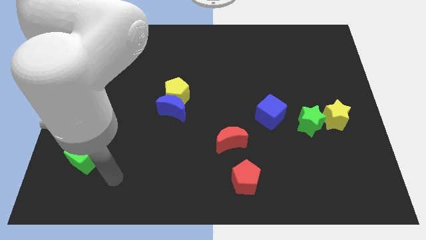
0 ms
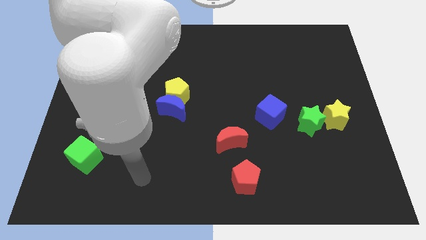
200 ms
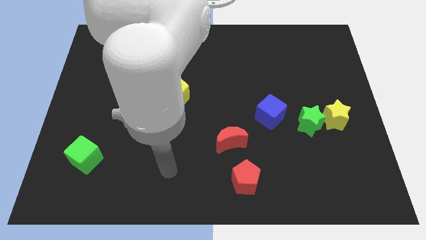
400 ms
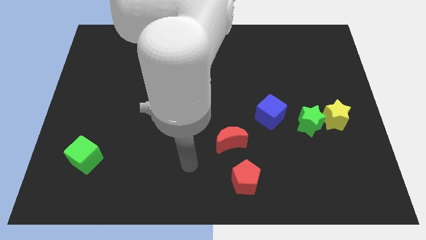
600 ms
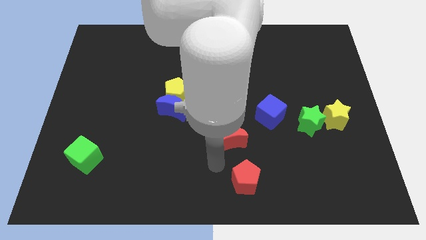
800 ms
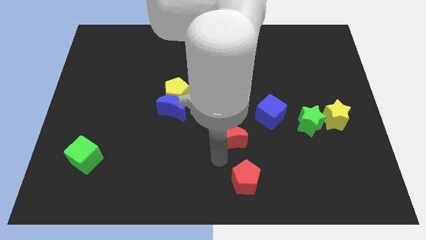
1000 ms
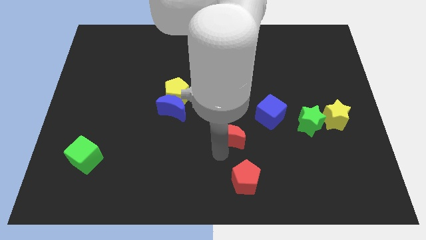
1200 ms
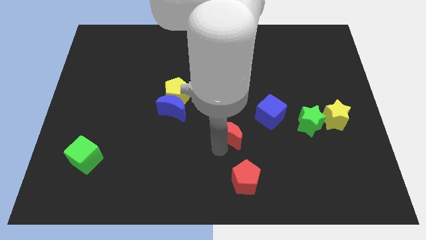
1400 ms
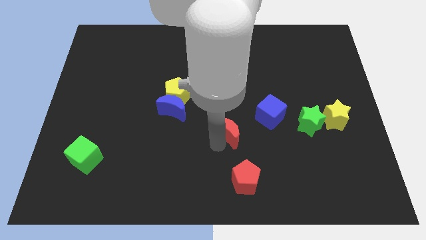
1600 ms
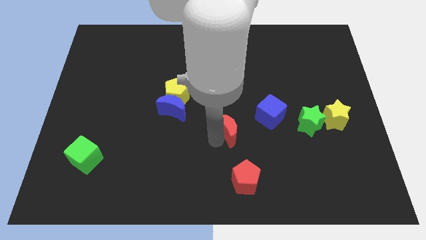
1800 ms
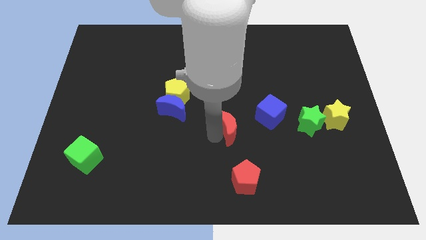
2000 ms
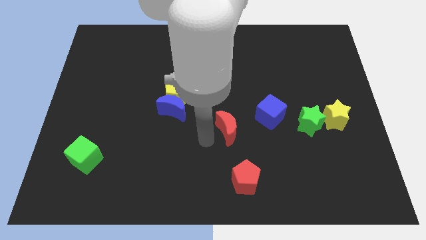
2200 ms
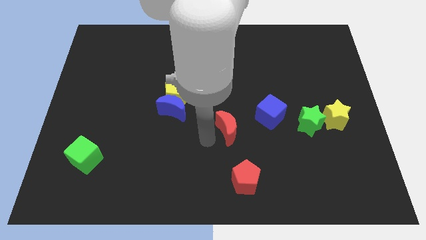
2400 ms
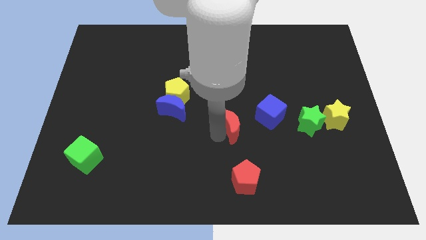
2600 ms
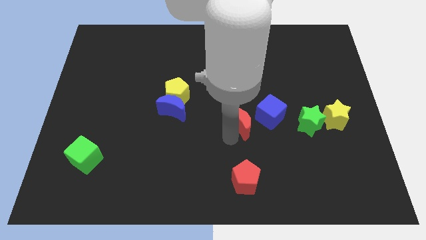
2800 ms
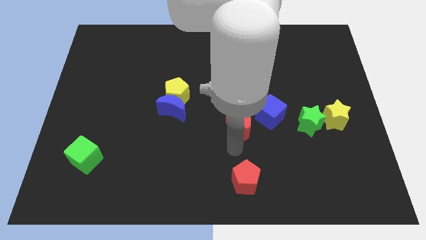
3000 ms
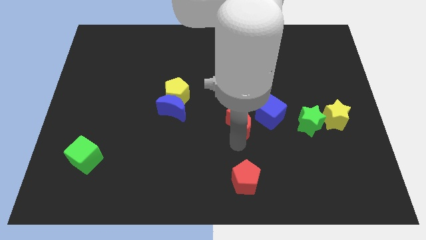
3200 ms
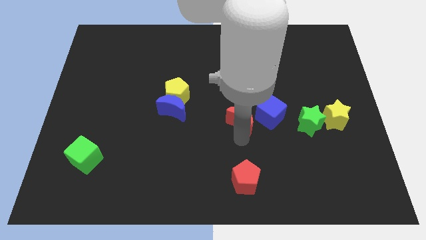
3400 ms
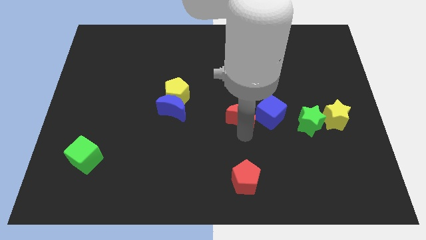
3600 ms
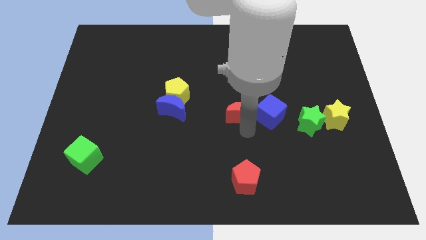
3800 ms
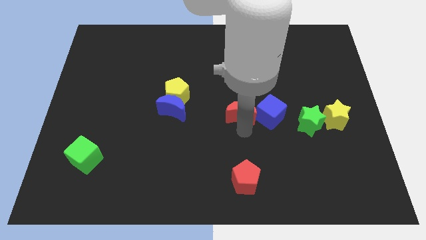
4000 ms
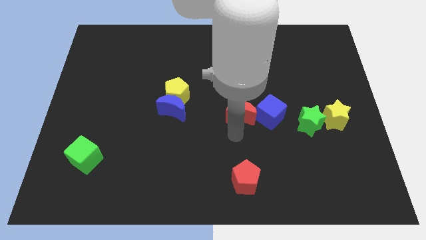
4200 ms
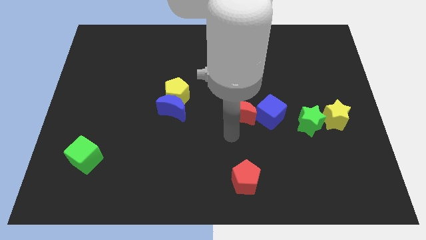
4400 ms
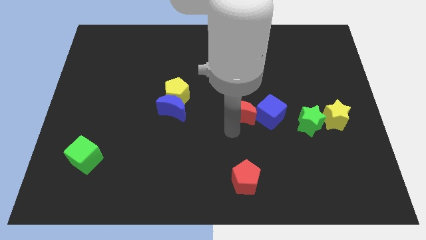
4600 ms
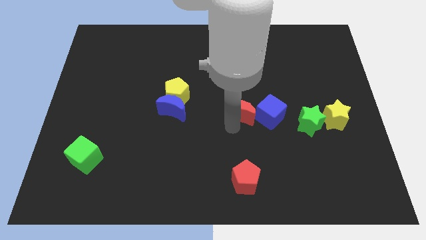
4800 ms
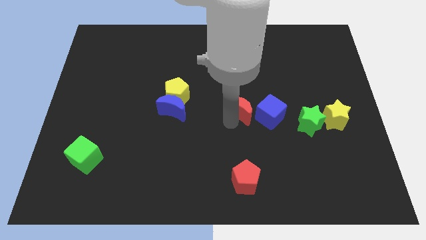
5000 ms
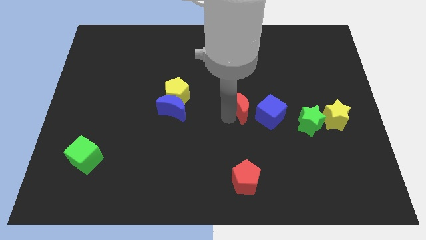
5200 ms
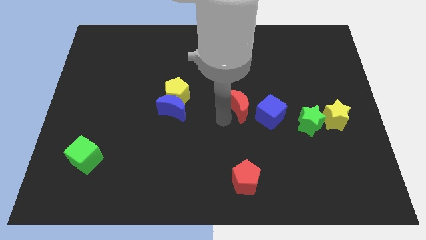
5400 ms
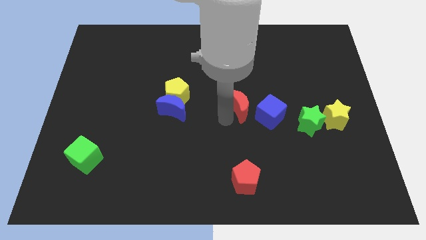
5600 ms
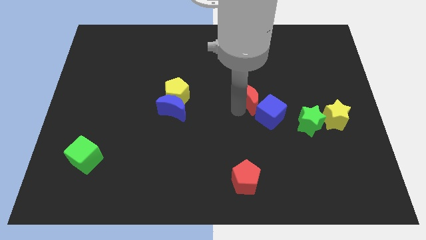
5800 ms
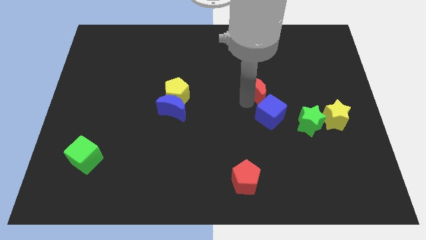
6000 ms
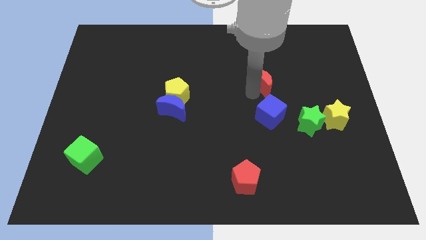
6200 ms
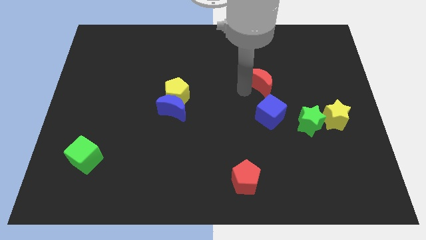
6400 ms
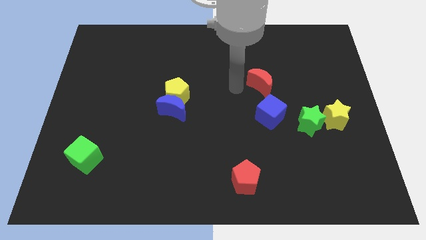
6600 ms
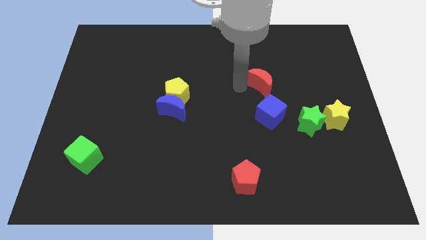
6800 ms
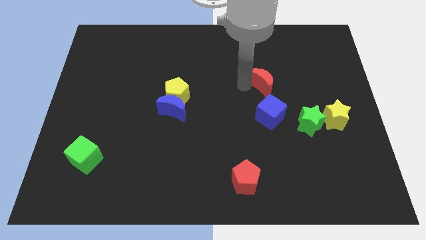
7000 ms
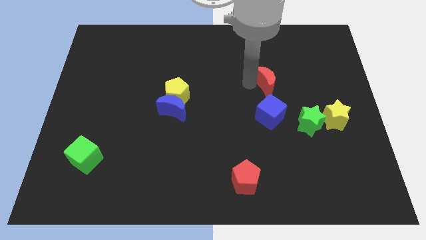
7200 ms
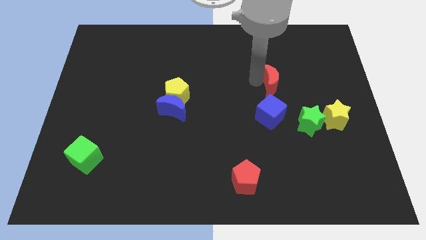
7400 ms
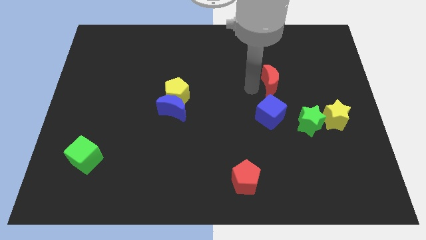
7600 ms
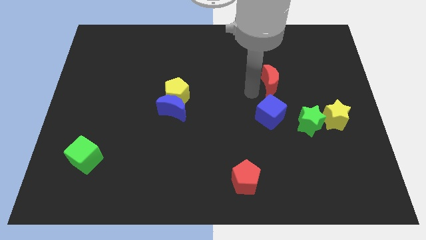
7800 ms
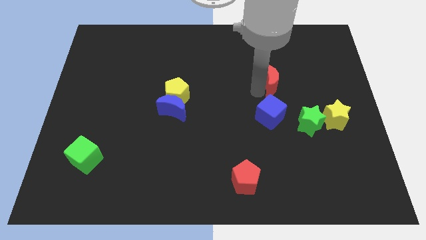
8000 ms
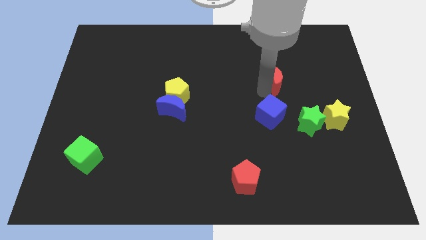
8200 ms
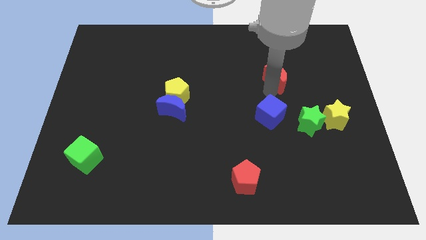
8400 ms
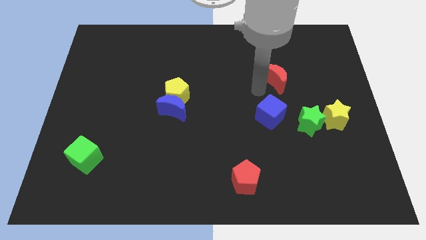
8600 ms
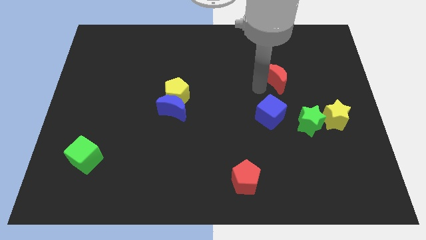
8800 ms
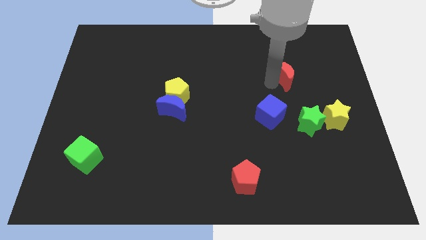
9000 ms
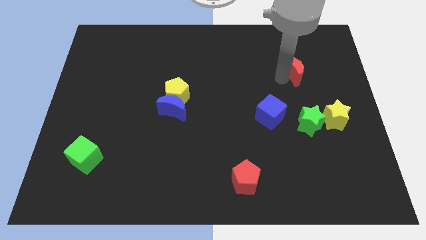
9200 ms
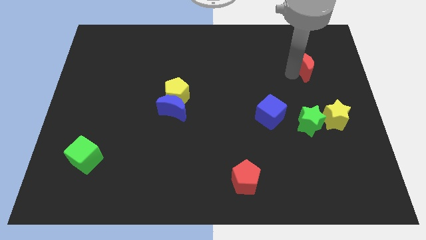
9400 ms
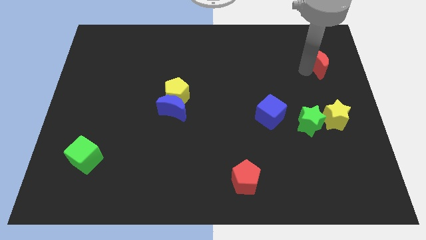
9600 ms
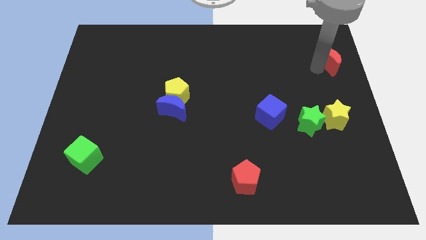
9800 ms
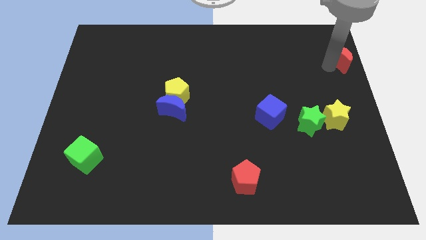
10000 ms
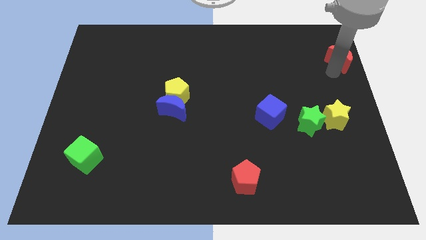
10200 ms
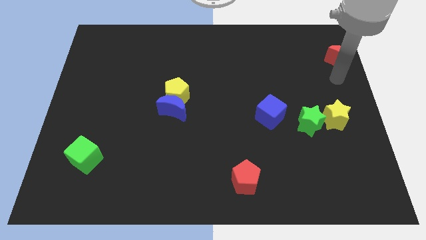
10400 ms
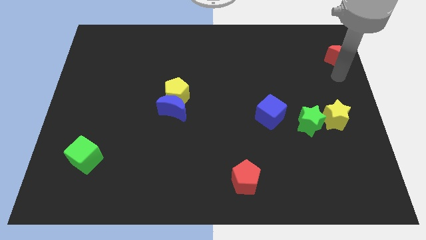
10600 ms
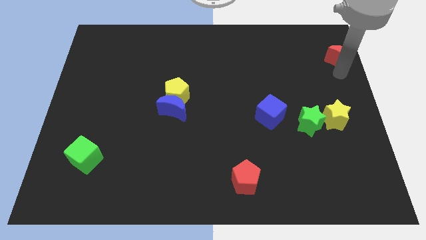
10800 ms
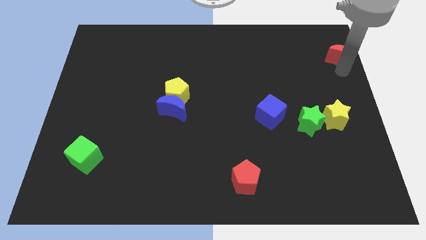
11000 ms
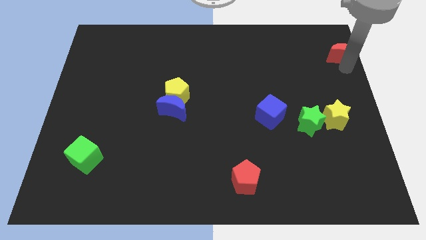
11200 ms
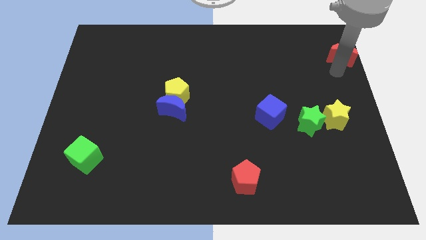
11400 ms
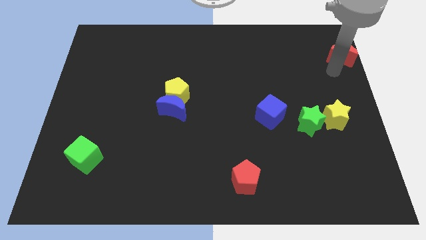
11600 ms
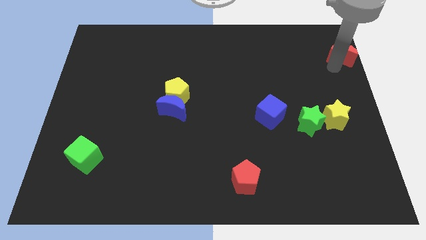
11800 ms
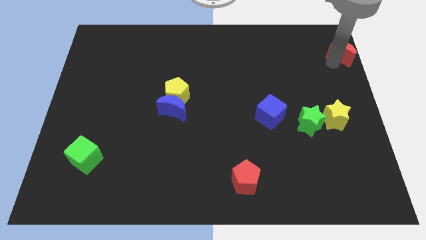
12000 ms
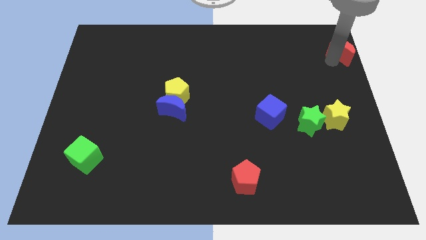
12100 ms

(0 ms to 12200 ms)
push the red moon to the top right corner
